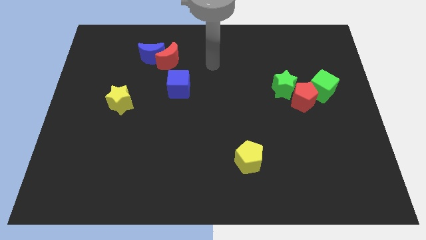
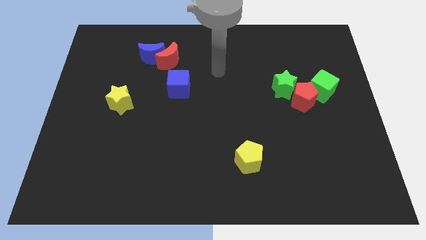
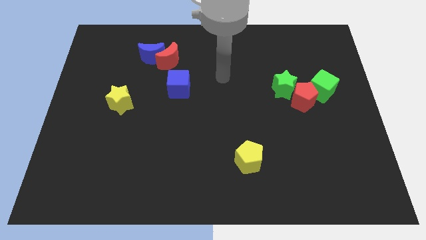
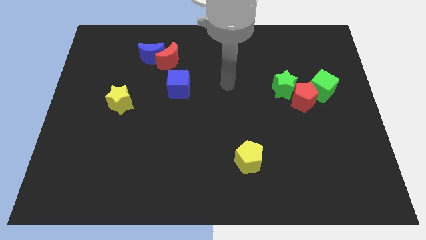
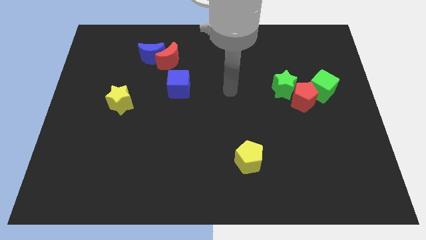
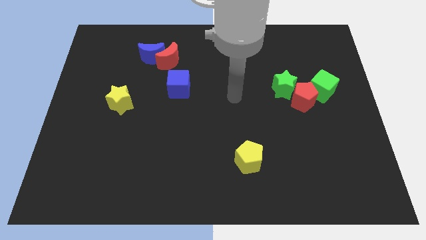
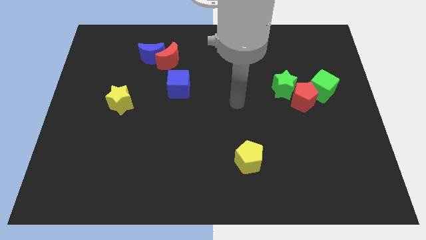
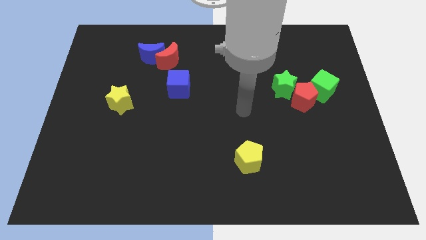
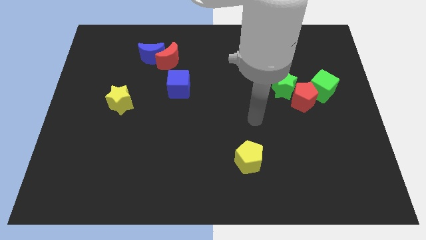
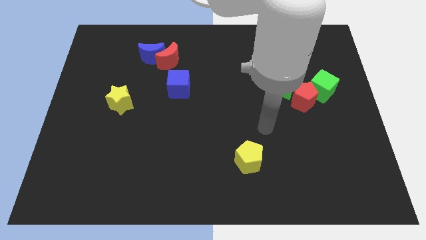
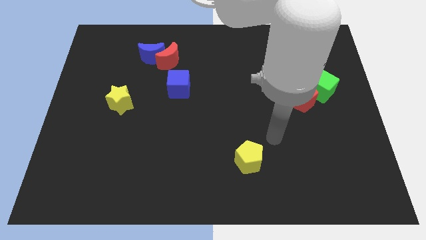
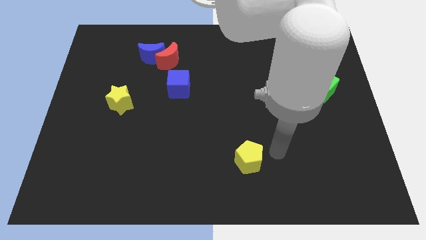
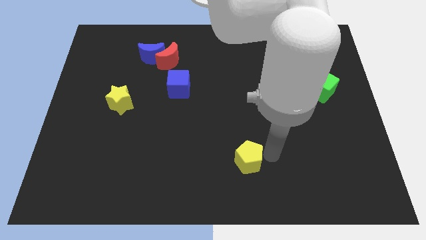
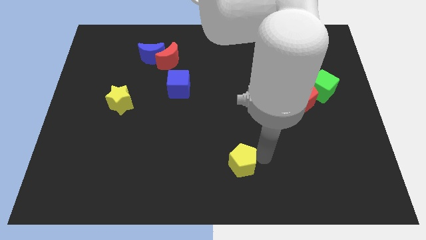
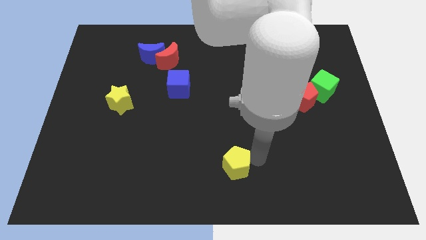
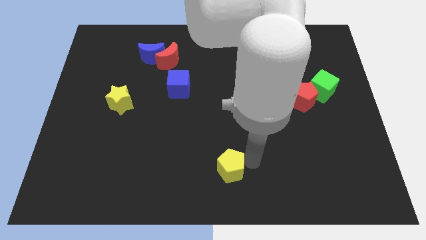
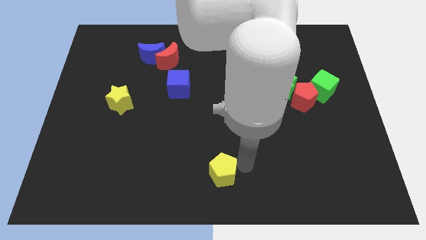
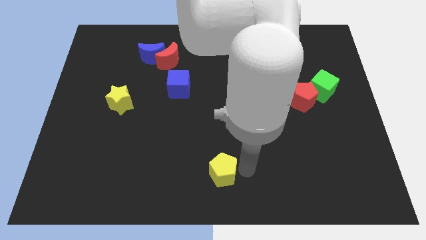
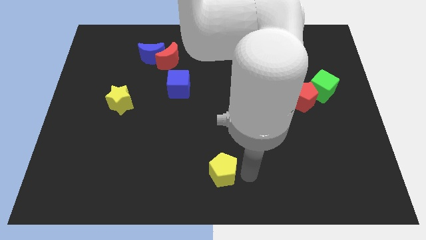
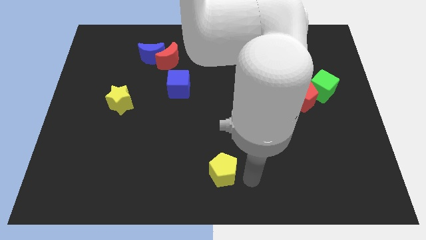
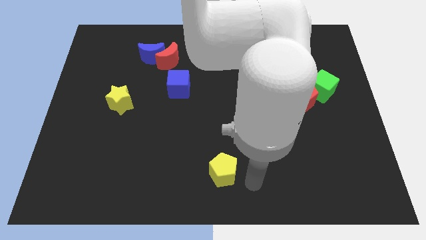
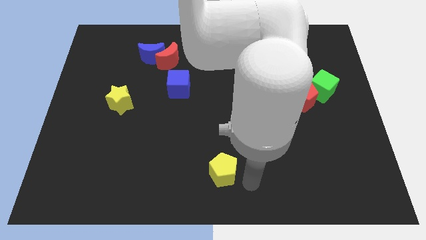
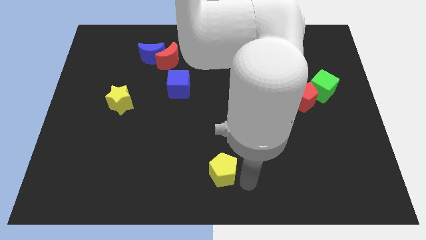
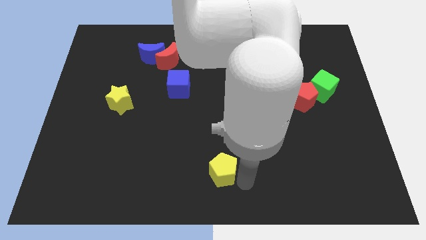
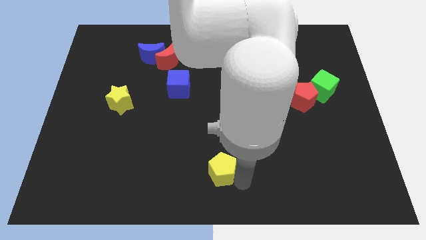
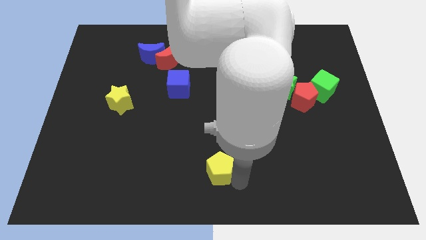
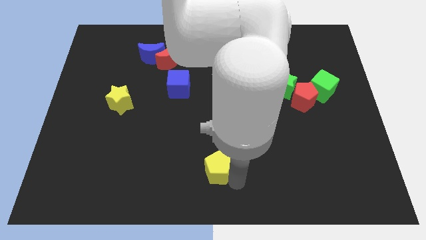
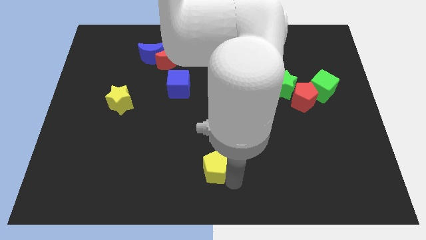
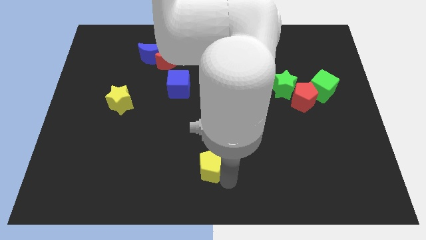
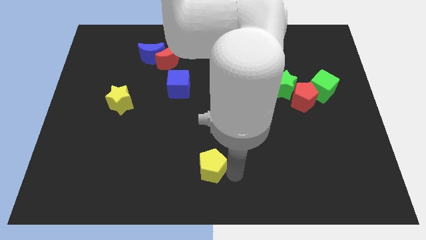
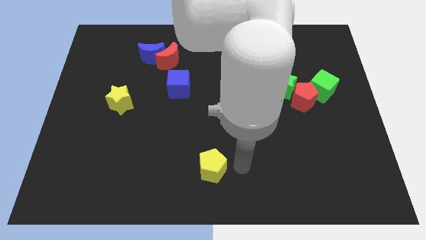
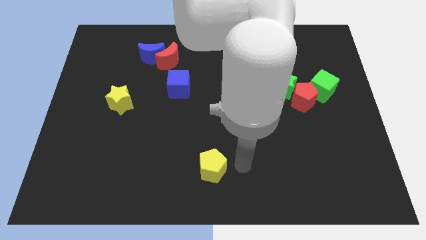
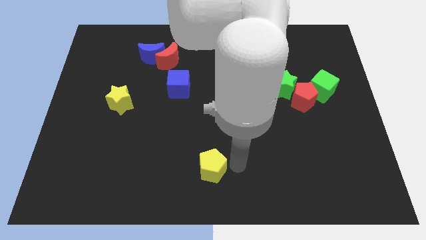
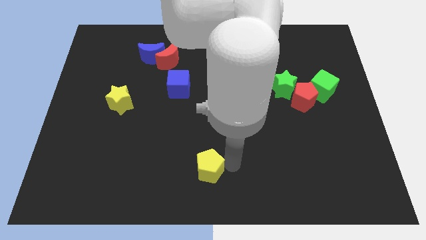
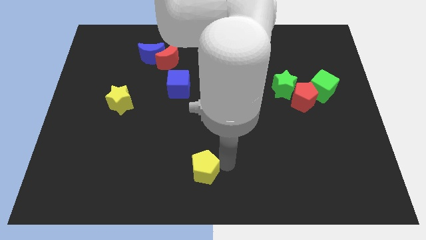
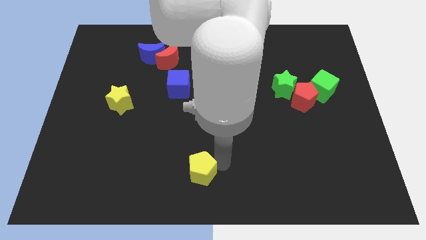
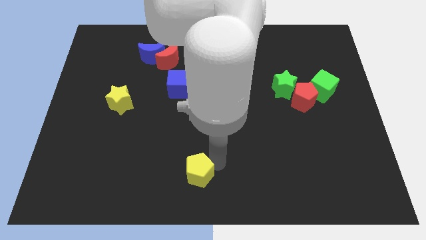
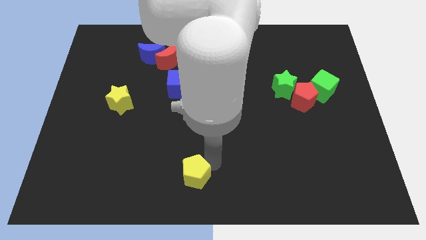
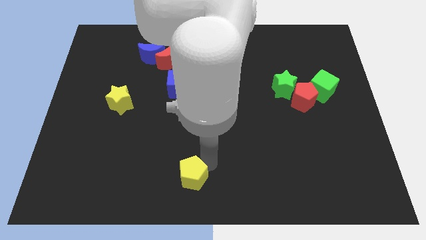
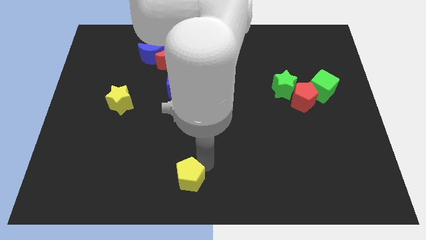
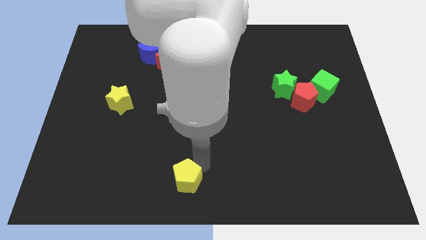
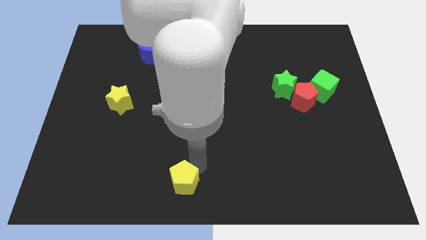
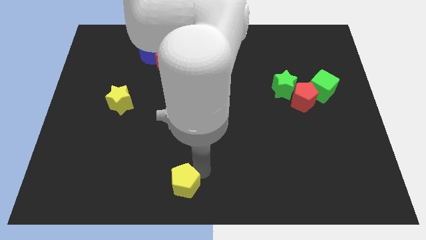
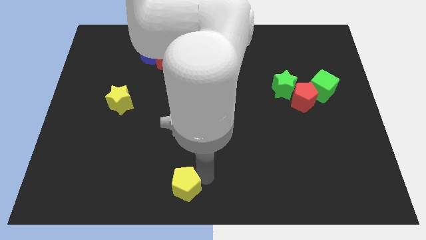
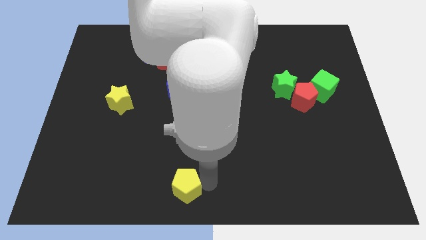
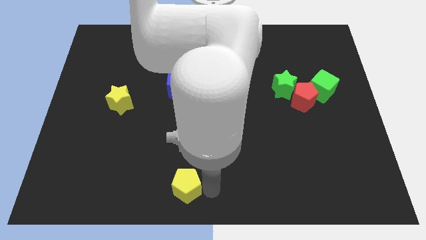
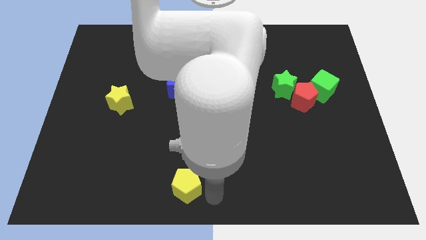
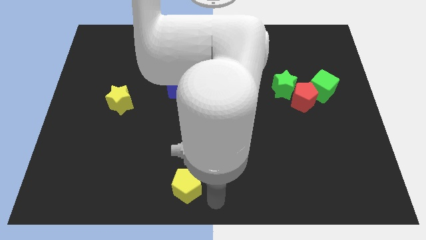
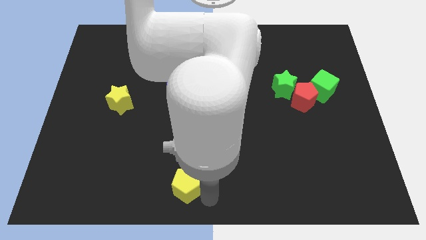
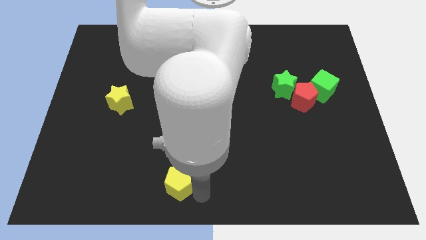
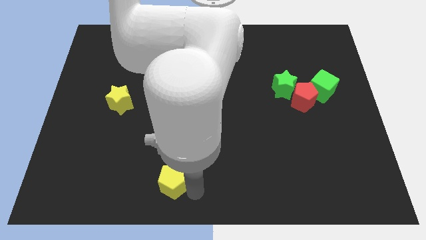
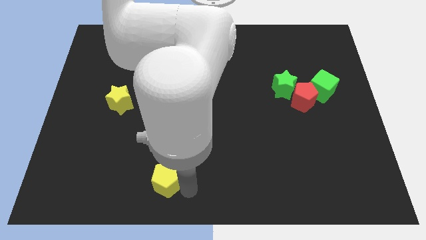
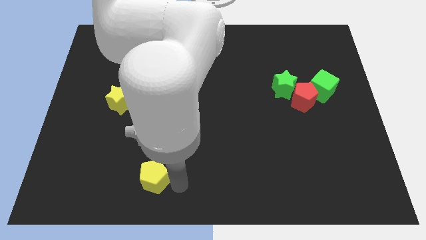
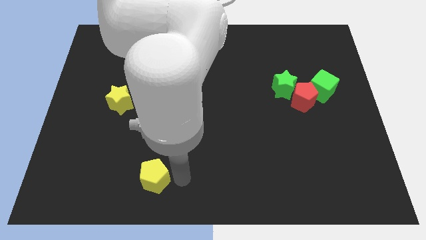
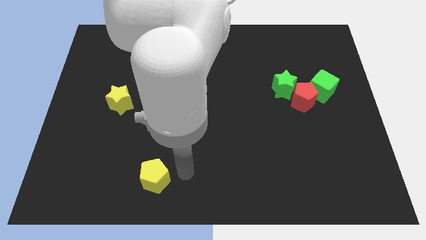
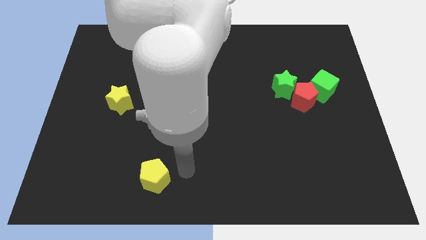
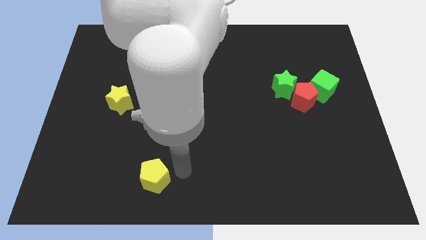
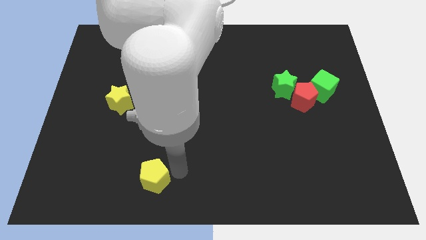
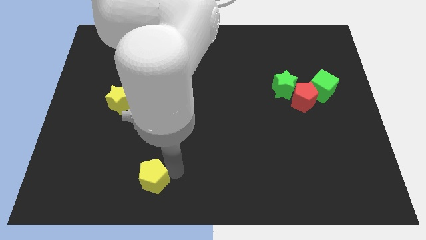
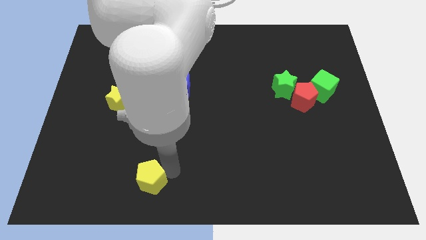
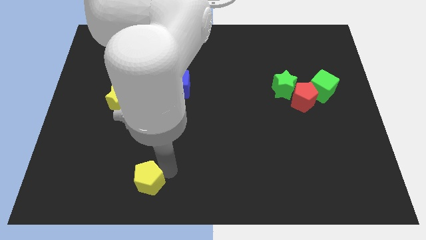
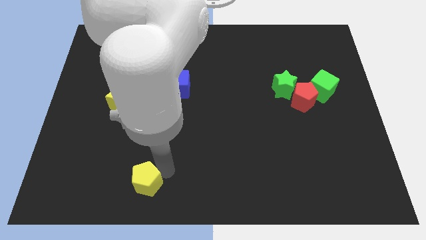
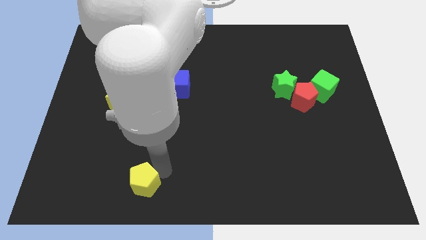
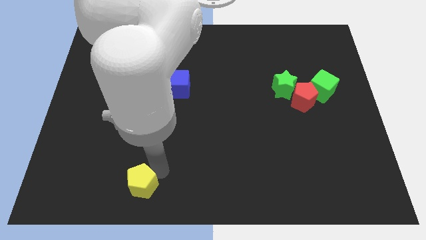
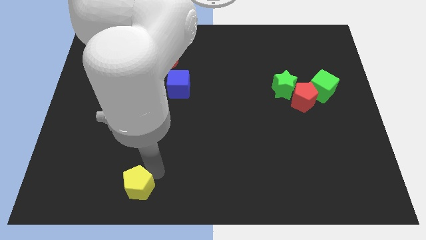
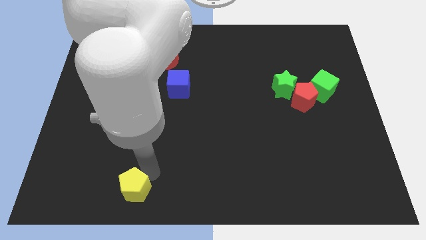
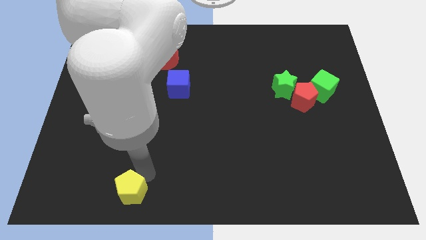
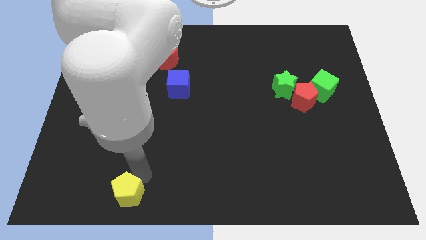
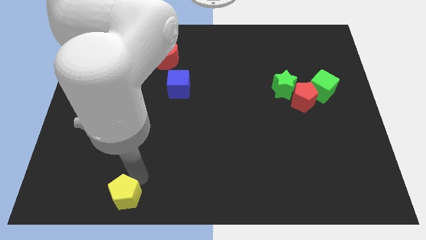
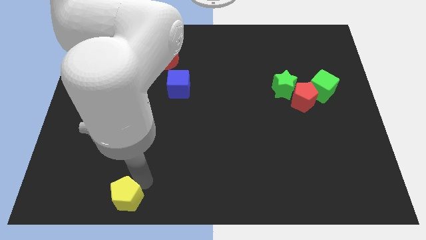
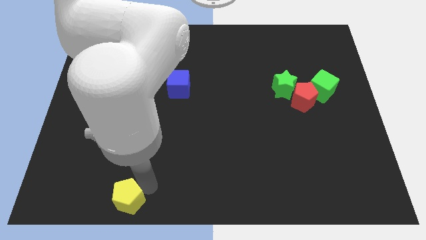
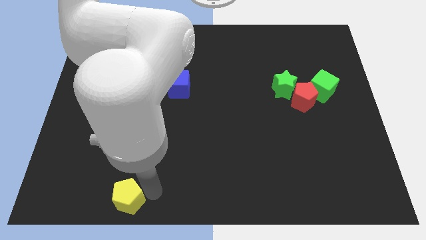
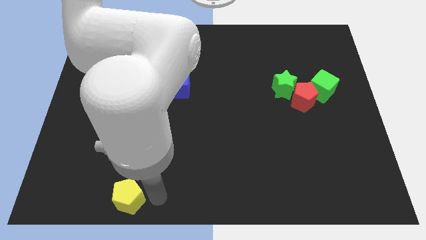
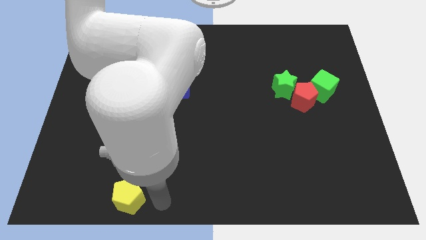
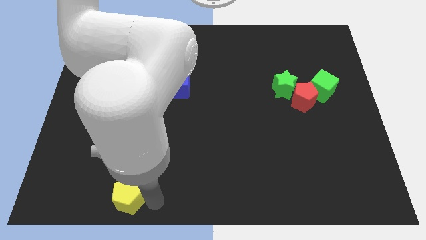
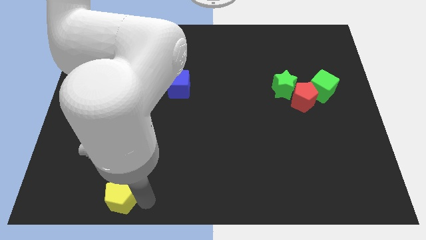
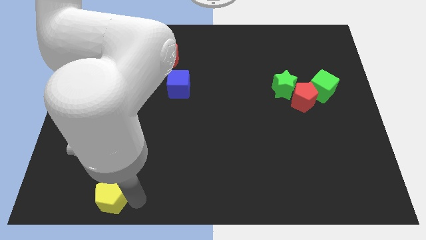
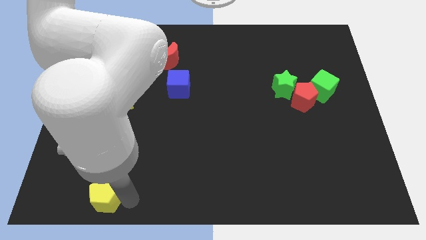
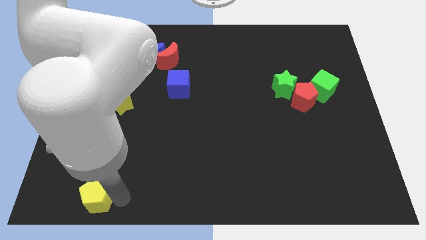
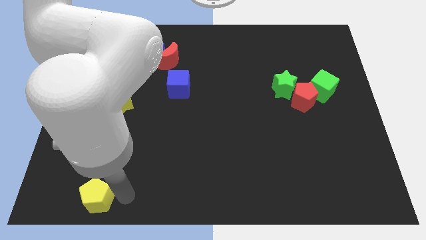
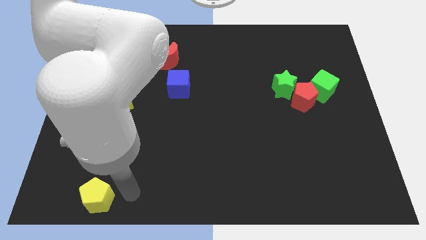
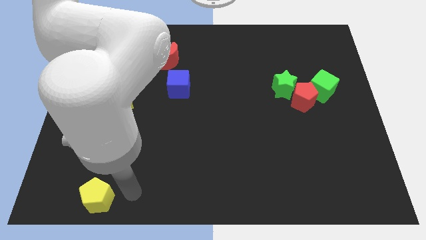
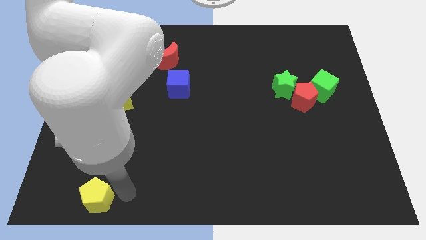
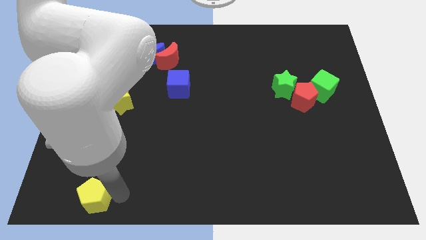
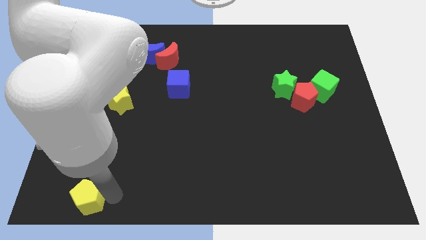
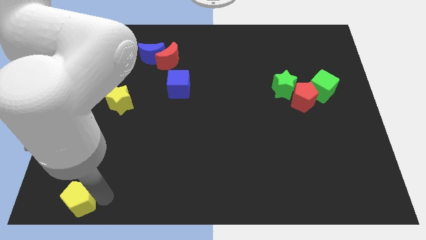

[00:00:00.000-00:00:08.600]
push the yellow pentagon to the bottom left
